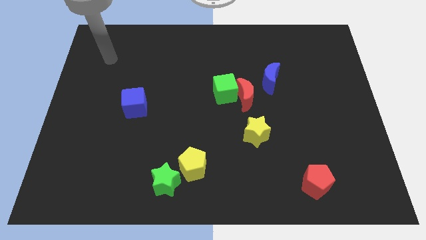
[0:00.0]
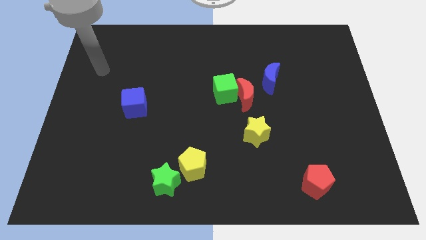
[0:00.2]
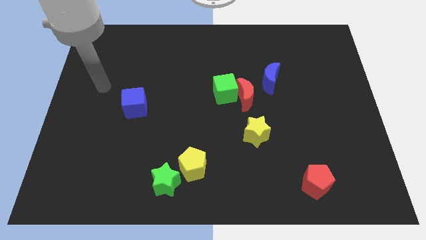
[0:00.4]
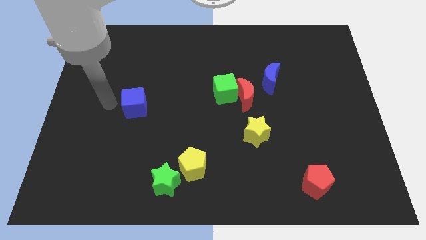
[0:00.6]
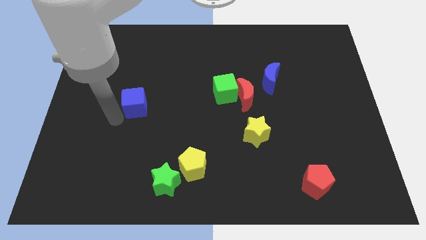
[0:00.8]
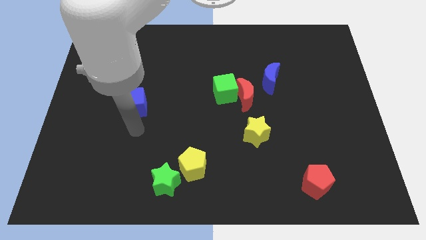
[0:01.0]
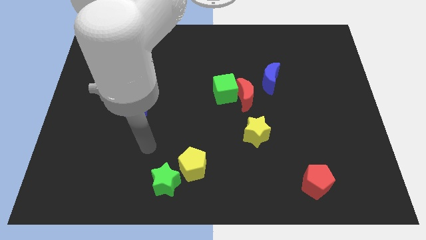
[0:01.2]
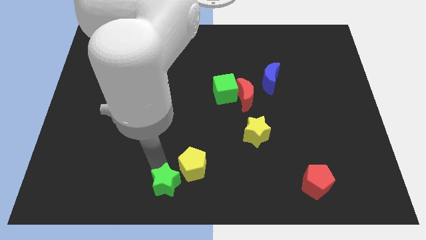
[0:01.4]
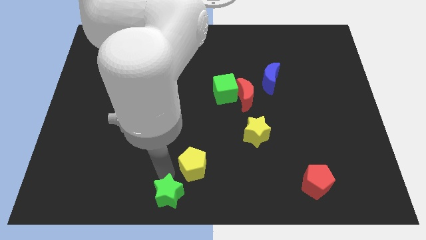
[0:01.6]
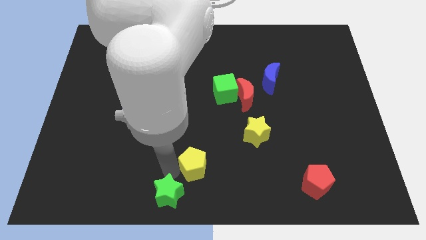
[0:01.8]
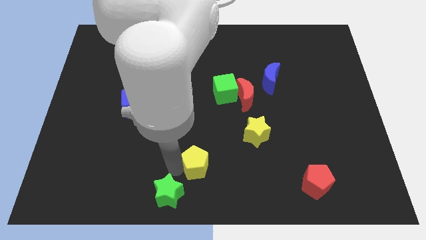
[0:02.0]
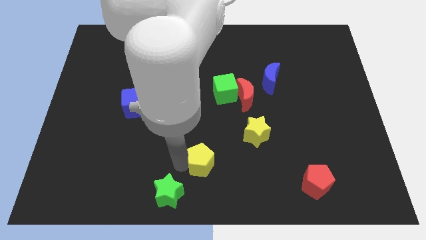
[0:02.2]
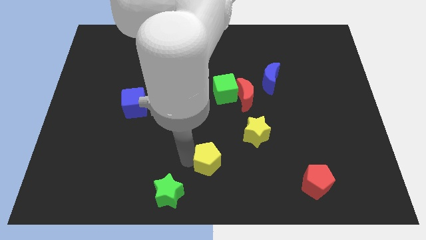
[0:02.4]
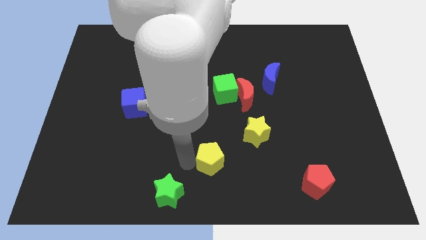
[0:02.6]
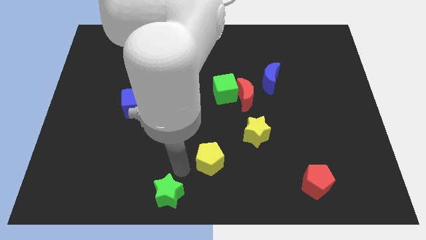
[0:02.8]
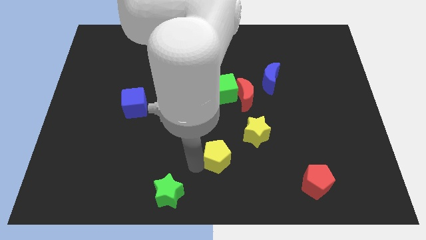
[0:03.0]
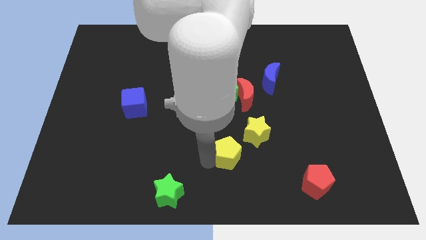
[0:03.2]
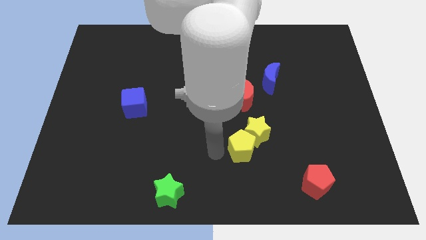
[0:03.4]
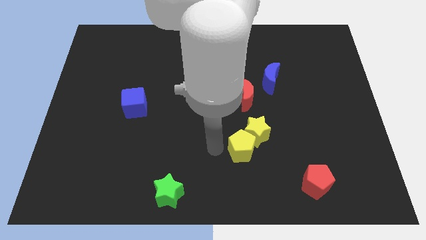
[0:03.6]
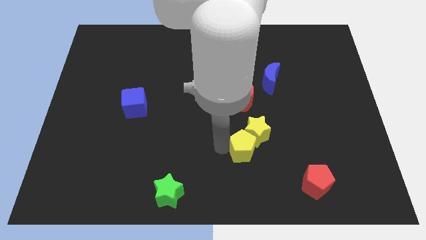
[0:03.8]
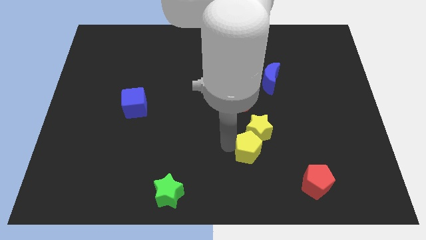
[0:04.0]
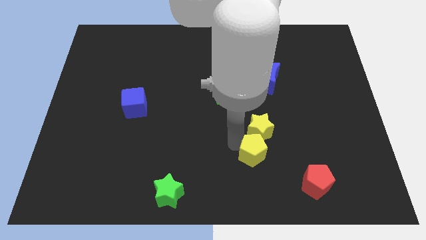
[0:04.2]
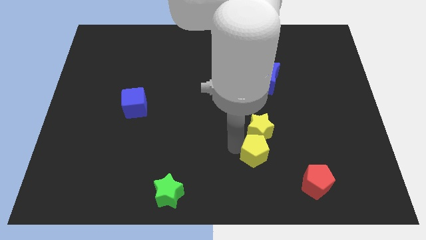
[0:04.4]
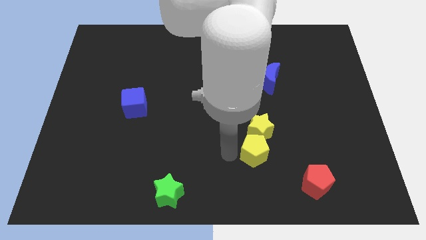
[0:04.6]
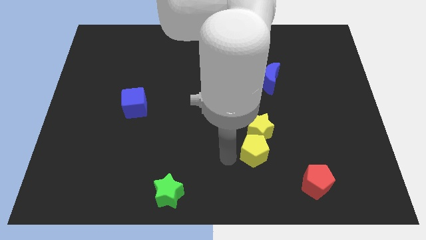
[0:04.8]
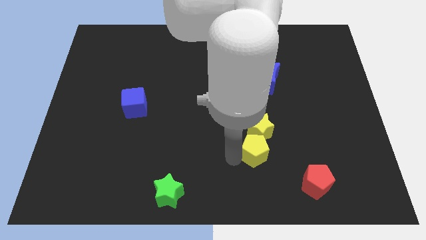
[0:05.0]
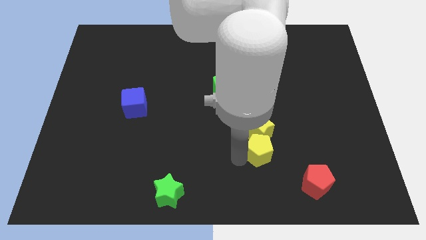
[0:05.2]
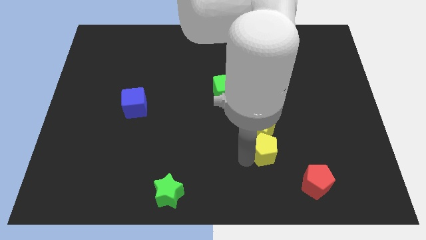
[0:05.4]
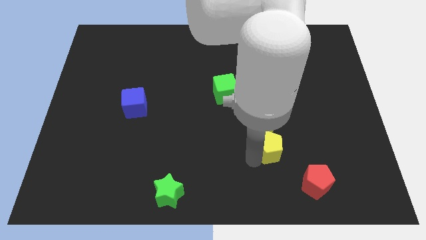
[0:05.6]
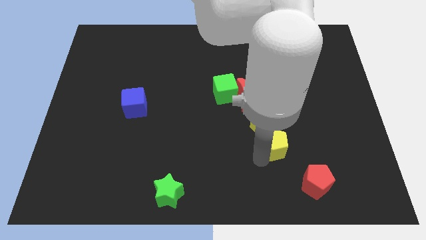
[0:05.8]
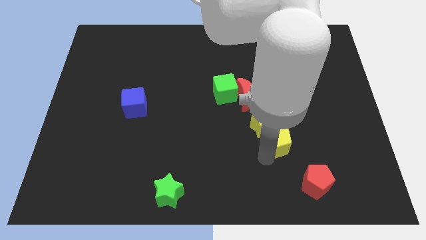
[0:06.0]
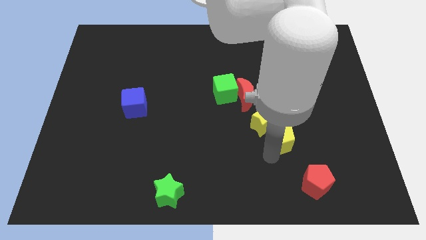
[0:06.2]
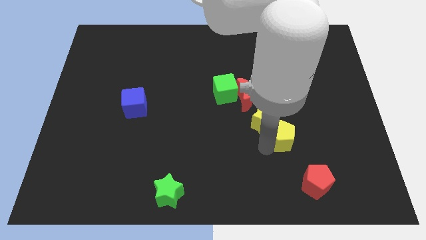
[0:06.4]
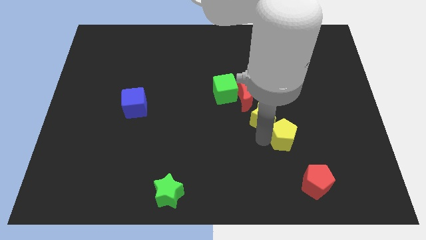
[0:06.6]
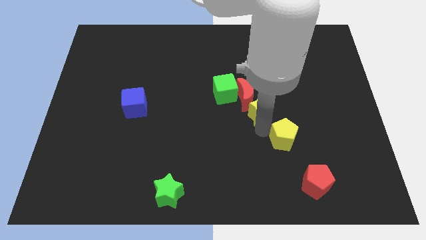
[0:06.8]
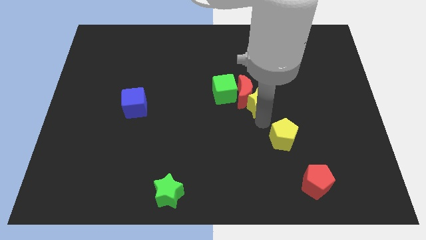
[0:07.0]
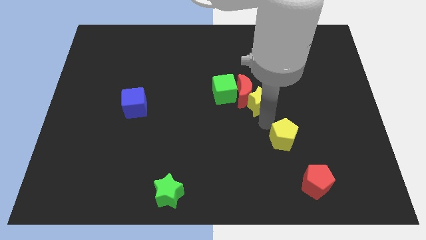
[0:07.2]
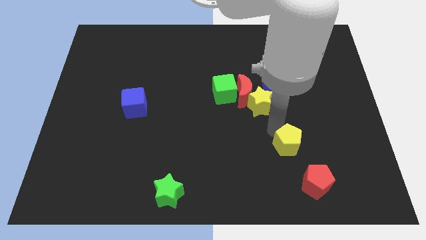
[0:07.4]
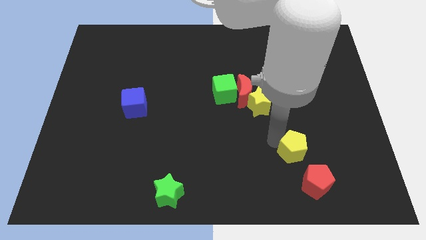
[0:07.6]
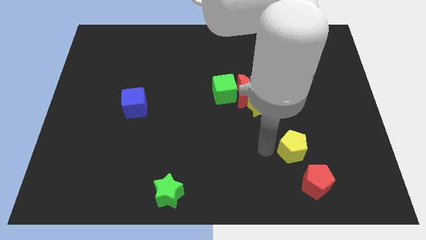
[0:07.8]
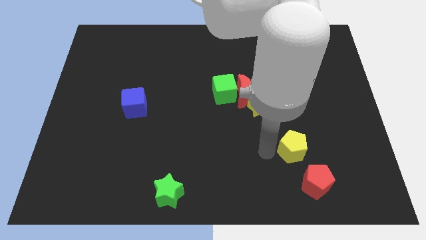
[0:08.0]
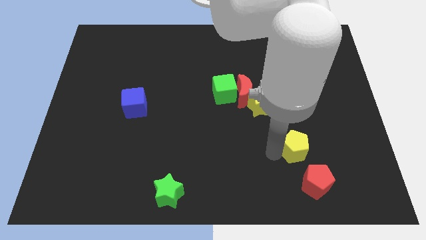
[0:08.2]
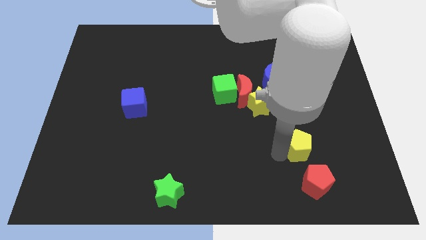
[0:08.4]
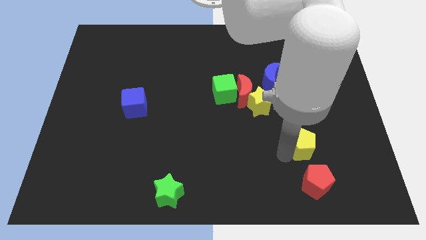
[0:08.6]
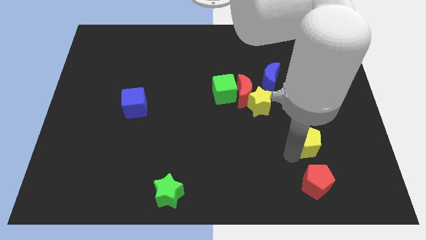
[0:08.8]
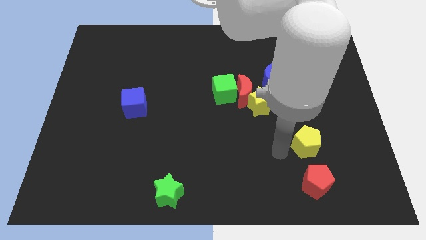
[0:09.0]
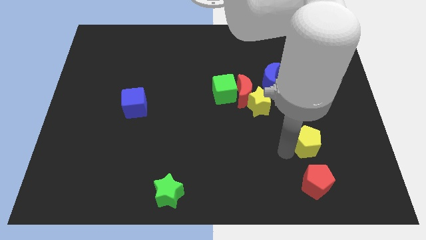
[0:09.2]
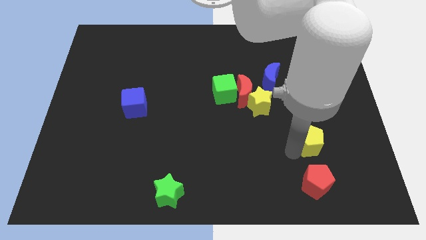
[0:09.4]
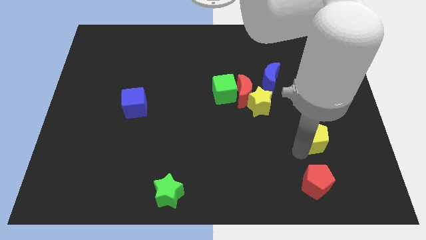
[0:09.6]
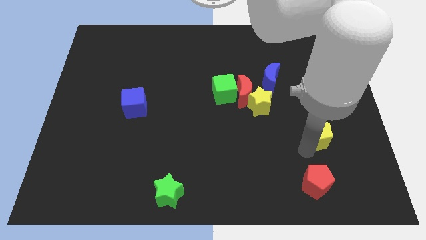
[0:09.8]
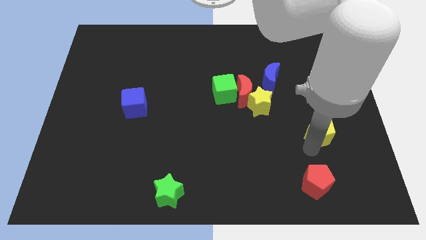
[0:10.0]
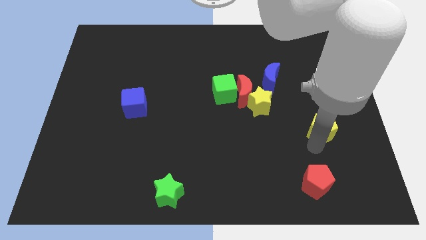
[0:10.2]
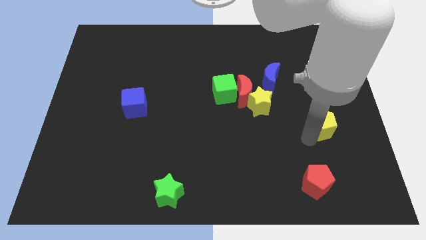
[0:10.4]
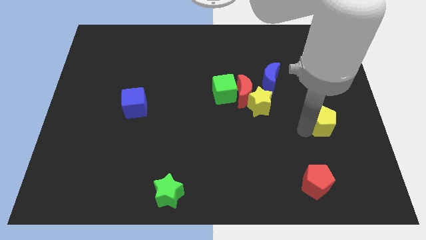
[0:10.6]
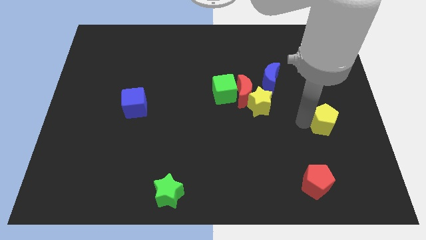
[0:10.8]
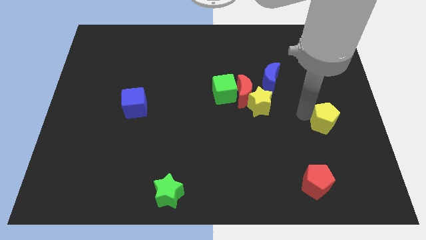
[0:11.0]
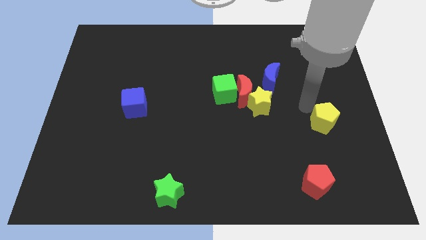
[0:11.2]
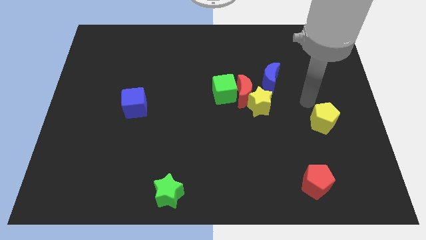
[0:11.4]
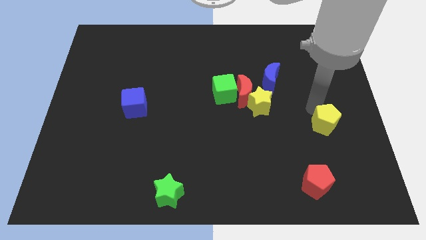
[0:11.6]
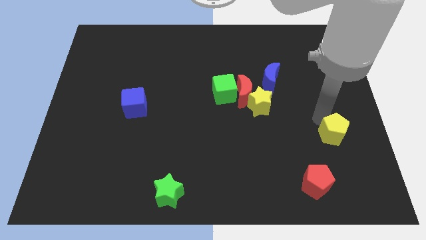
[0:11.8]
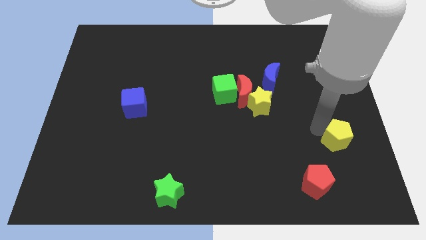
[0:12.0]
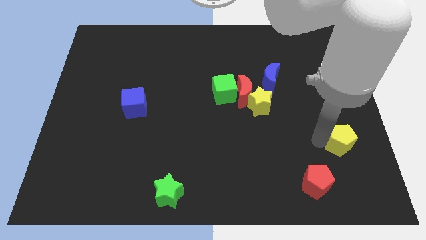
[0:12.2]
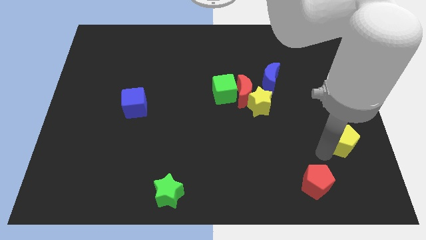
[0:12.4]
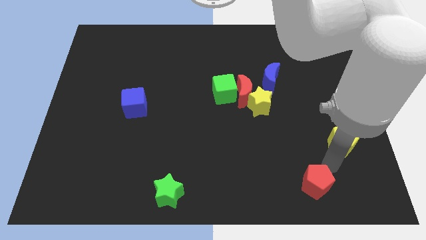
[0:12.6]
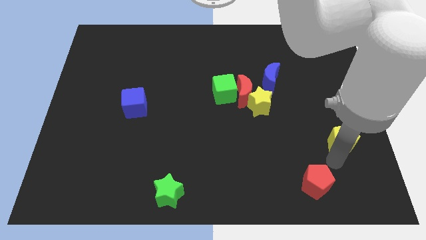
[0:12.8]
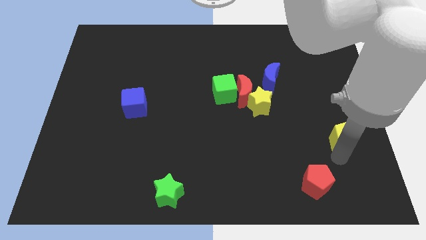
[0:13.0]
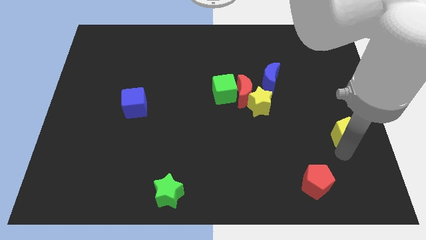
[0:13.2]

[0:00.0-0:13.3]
put the yellow pentagon to the right side

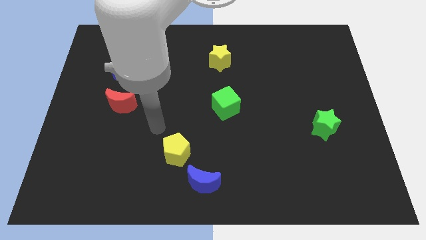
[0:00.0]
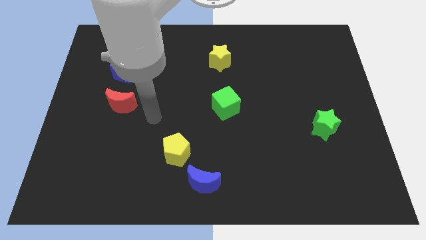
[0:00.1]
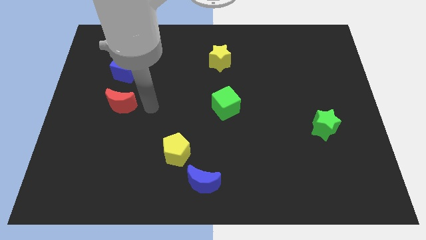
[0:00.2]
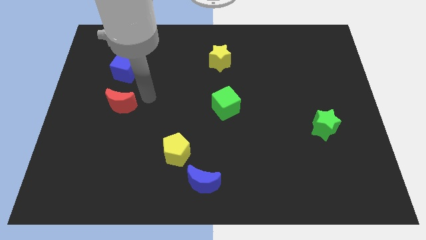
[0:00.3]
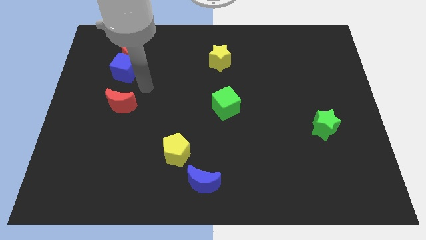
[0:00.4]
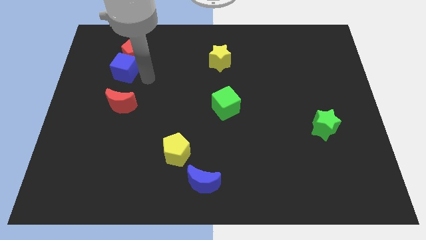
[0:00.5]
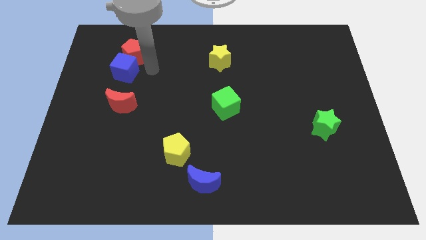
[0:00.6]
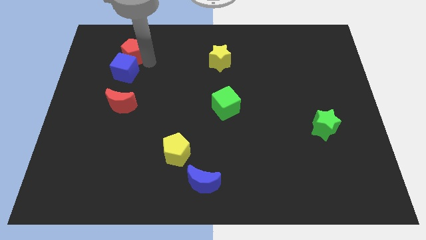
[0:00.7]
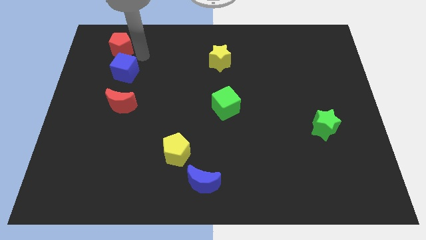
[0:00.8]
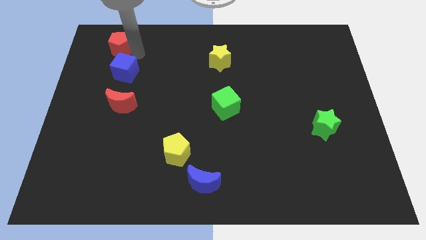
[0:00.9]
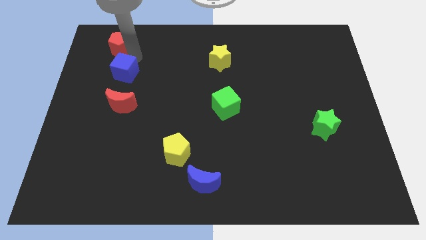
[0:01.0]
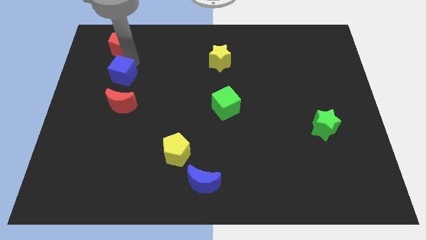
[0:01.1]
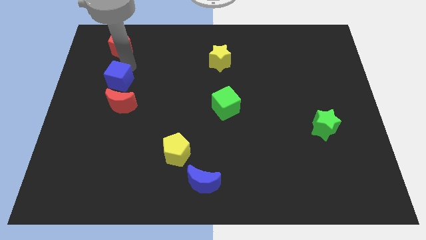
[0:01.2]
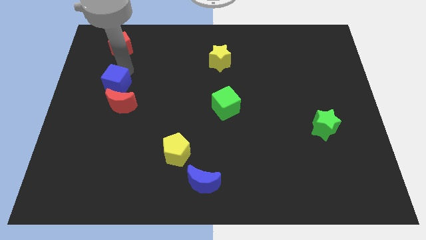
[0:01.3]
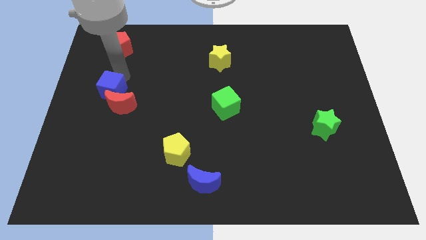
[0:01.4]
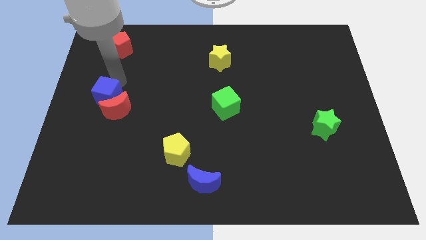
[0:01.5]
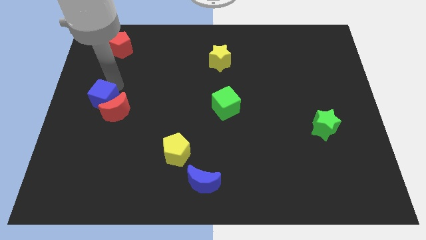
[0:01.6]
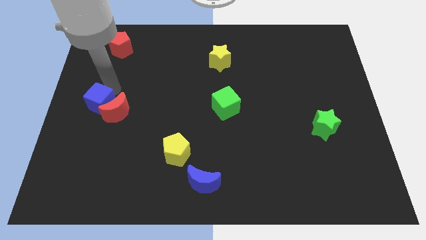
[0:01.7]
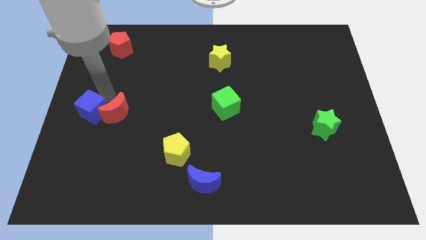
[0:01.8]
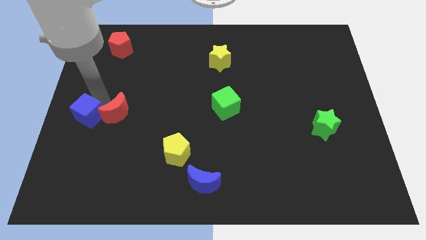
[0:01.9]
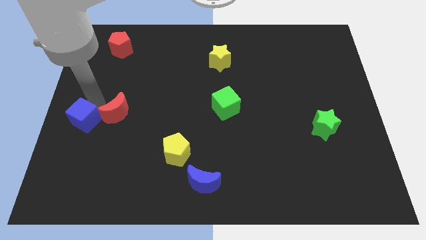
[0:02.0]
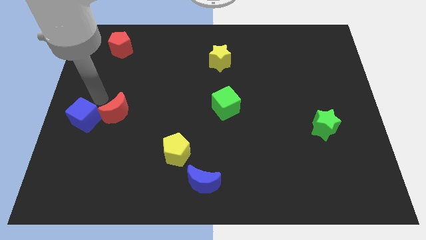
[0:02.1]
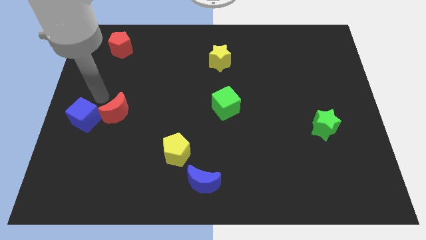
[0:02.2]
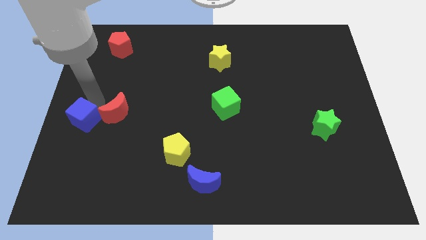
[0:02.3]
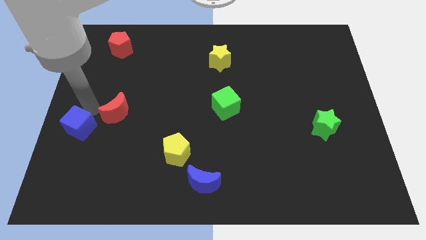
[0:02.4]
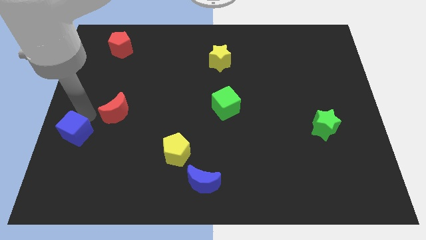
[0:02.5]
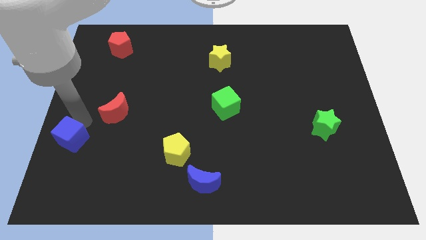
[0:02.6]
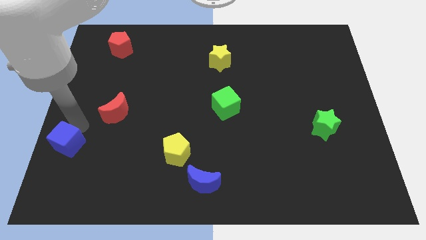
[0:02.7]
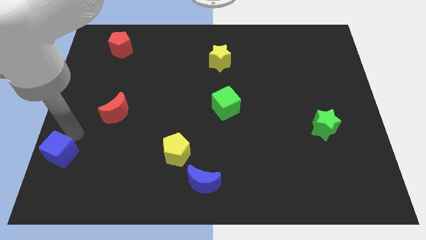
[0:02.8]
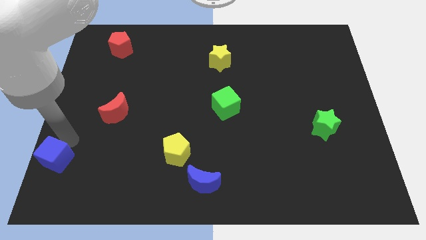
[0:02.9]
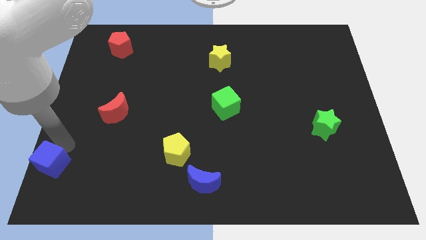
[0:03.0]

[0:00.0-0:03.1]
slide the blue cube to the bottom left corner
